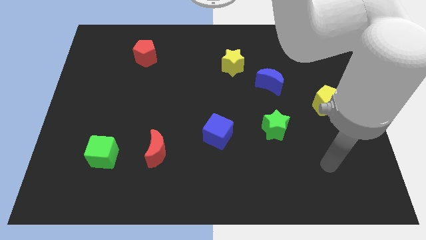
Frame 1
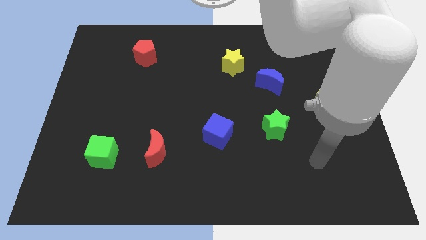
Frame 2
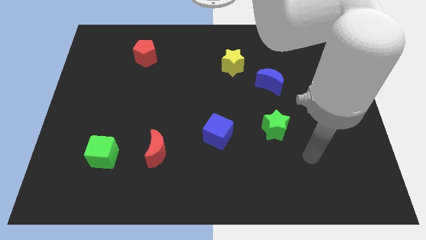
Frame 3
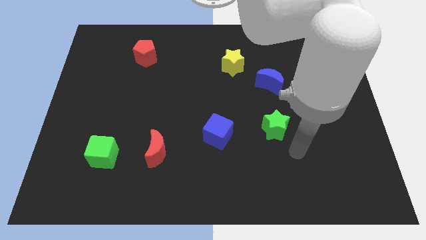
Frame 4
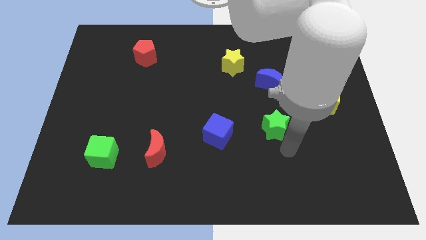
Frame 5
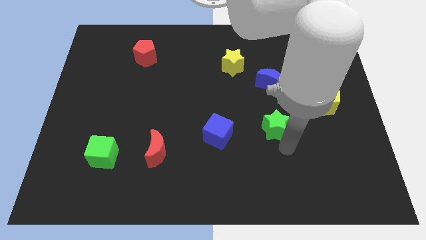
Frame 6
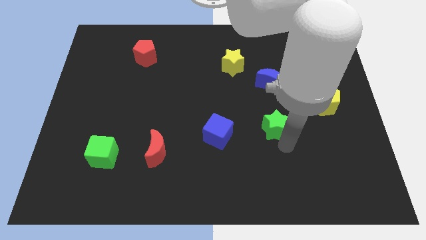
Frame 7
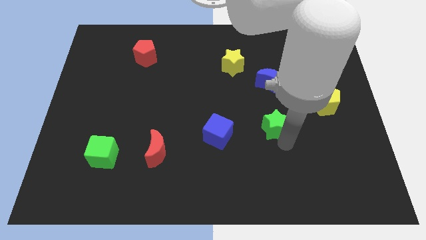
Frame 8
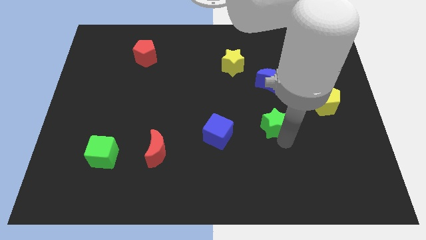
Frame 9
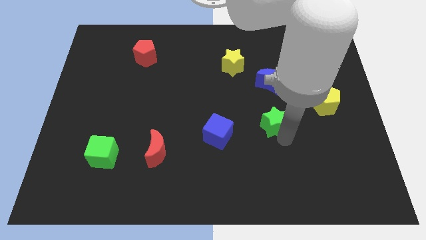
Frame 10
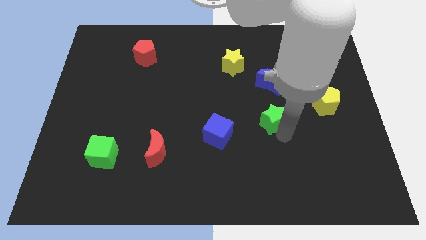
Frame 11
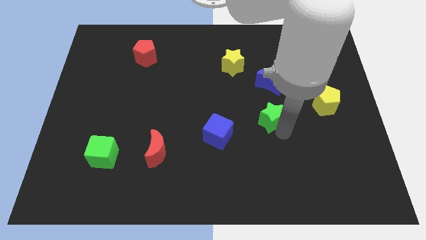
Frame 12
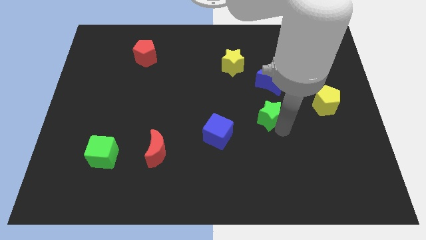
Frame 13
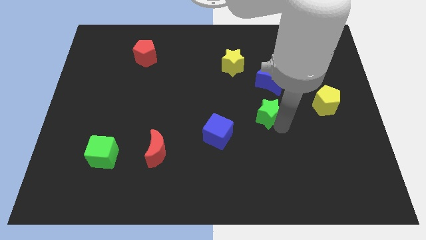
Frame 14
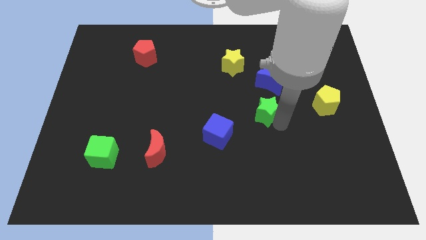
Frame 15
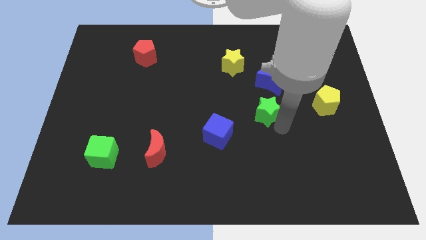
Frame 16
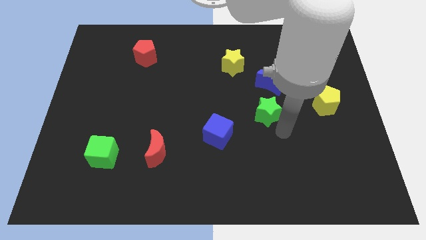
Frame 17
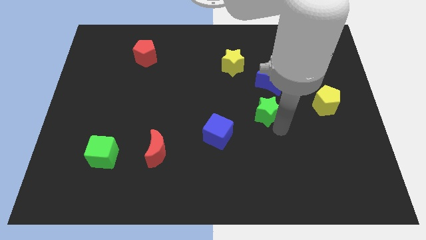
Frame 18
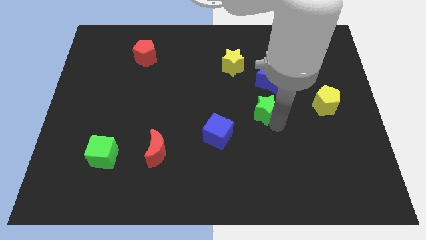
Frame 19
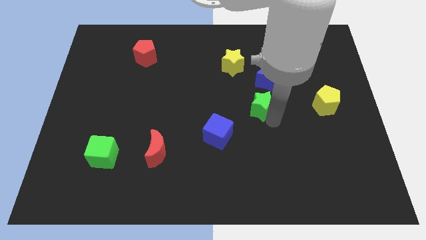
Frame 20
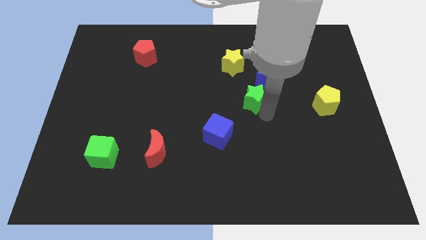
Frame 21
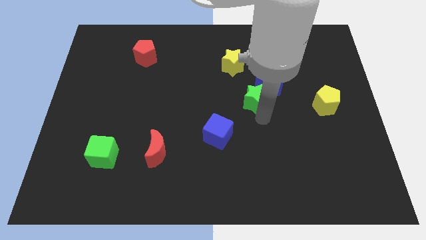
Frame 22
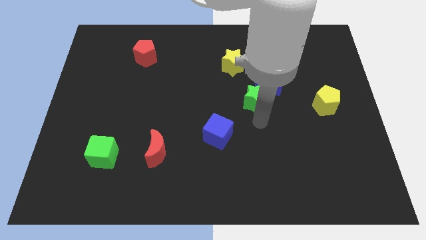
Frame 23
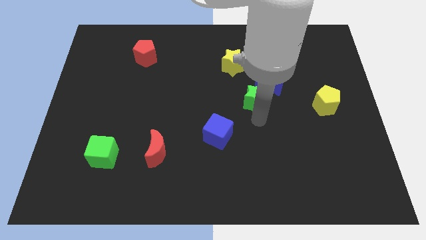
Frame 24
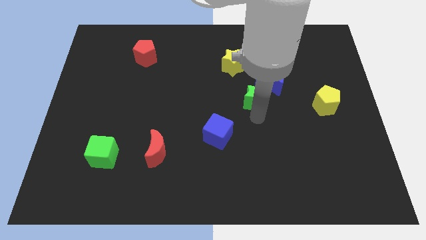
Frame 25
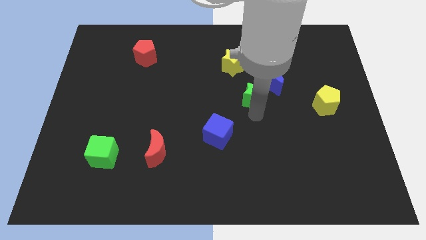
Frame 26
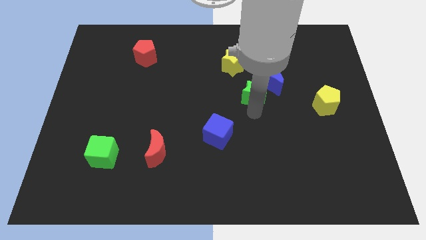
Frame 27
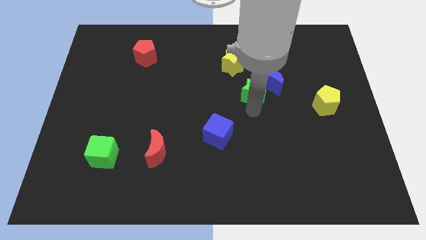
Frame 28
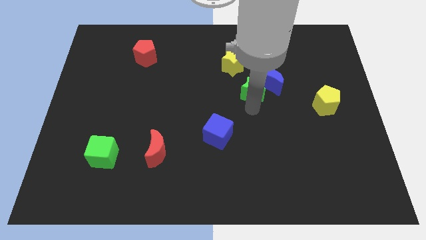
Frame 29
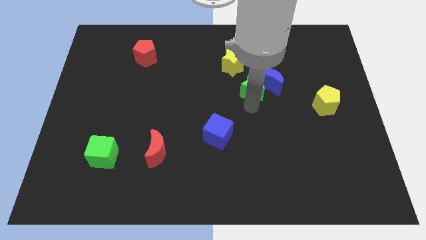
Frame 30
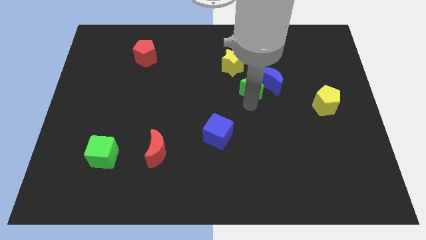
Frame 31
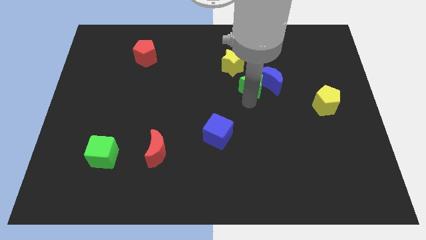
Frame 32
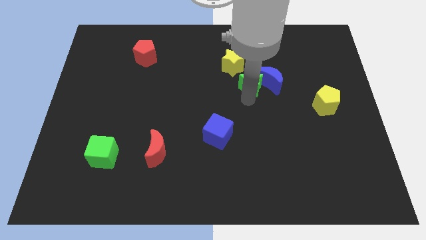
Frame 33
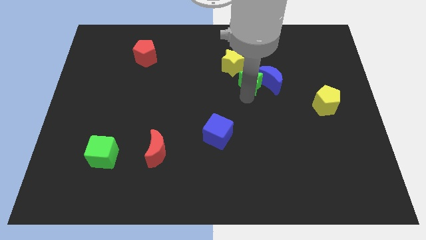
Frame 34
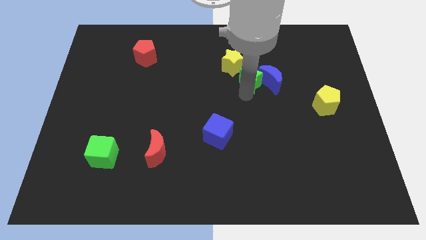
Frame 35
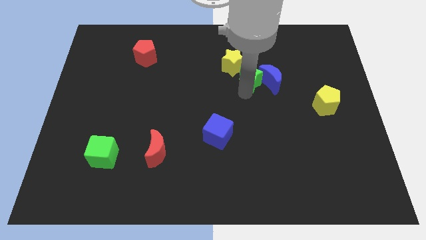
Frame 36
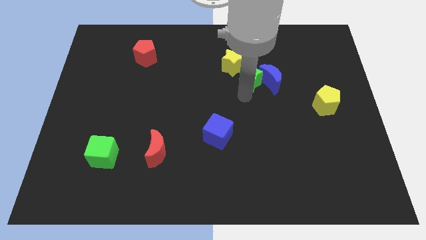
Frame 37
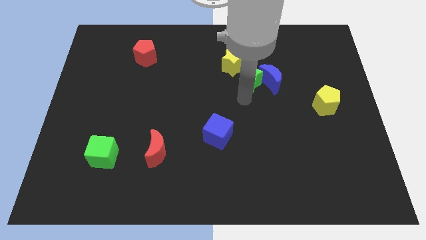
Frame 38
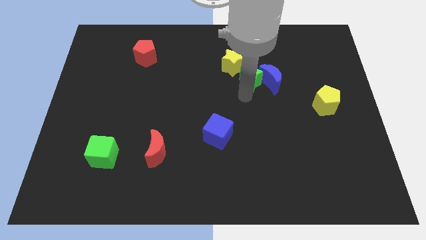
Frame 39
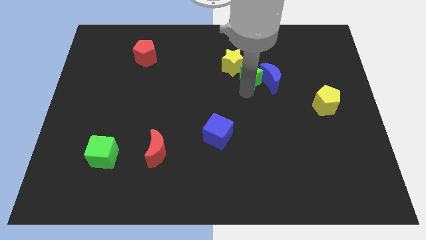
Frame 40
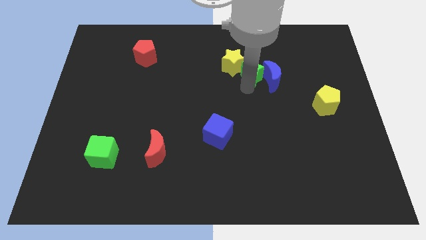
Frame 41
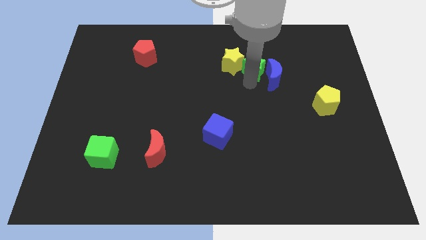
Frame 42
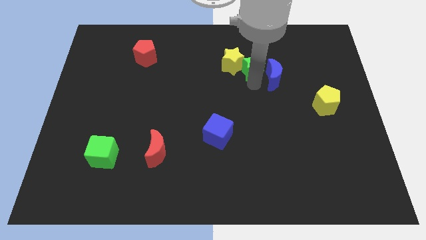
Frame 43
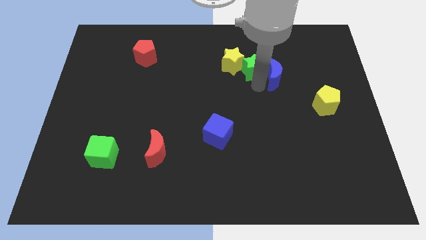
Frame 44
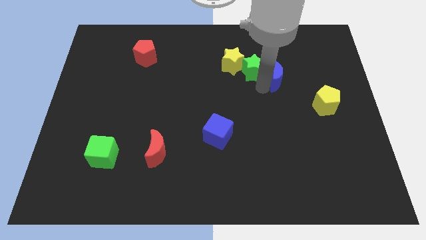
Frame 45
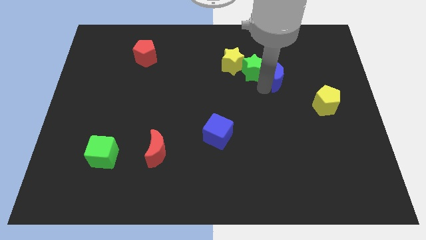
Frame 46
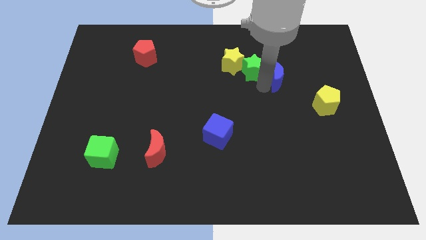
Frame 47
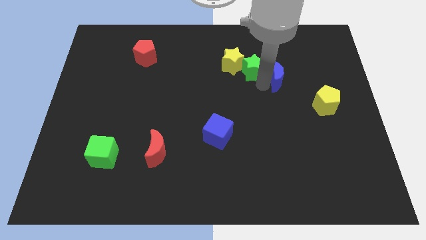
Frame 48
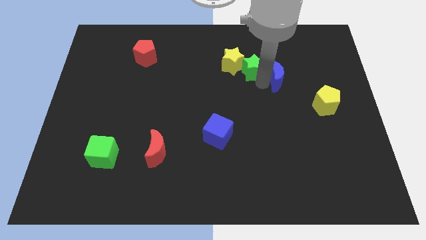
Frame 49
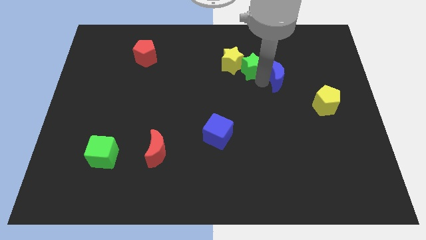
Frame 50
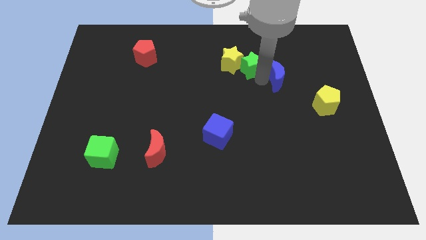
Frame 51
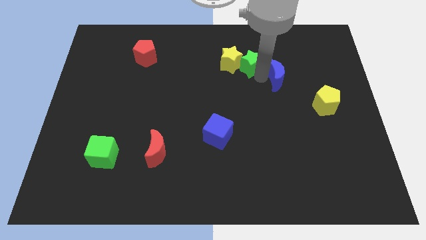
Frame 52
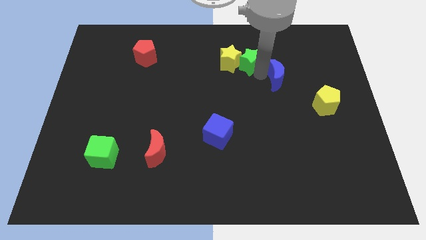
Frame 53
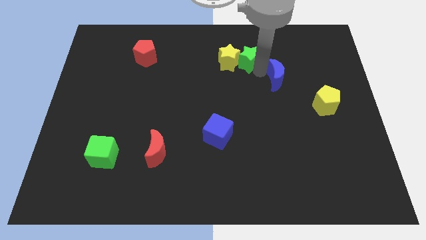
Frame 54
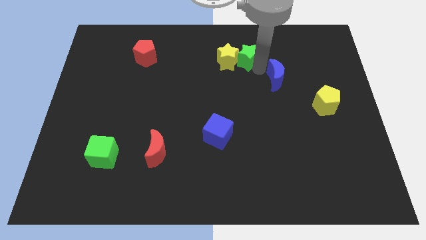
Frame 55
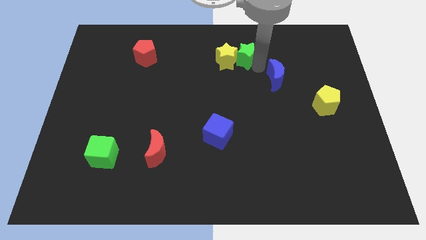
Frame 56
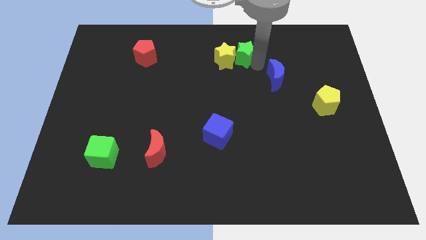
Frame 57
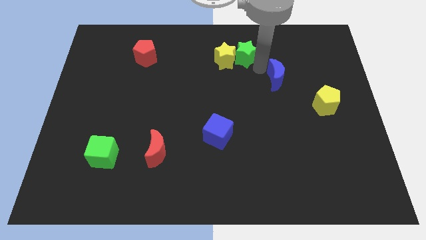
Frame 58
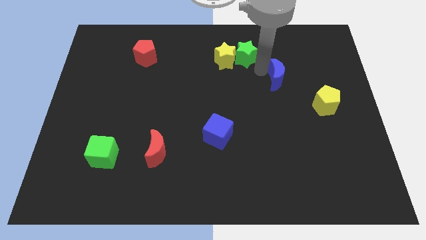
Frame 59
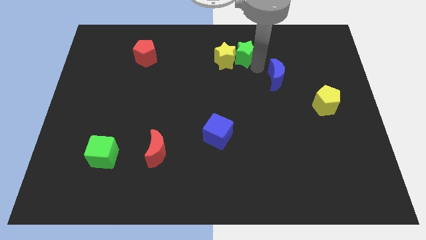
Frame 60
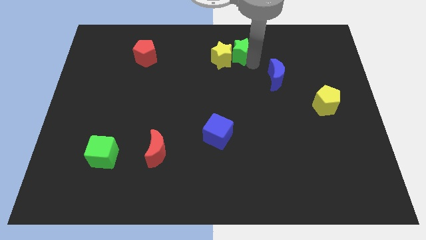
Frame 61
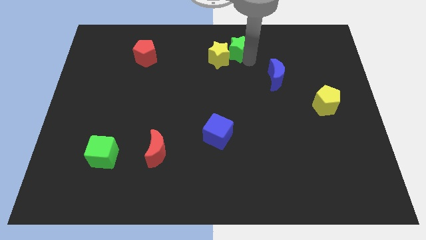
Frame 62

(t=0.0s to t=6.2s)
put the green star to the top side

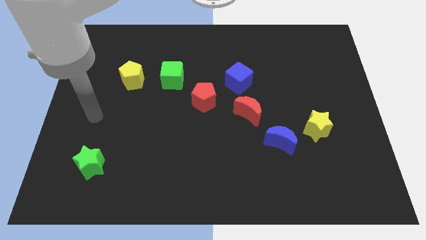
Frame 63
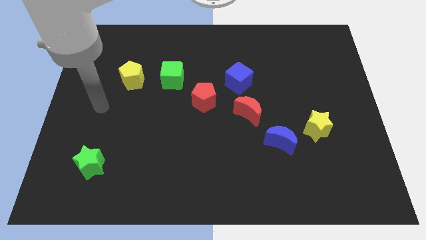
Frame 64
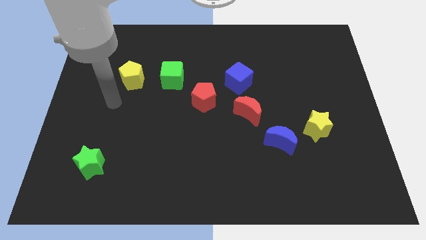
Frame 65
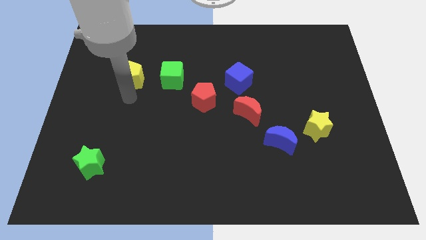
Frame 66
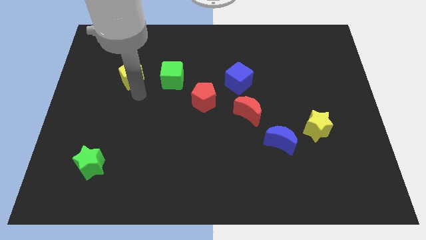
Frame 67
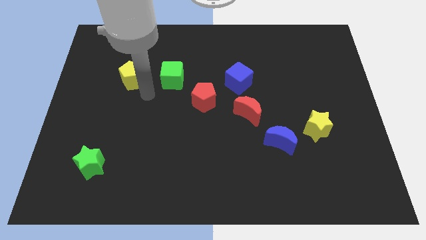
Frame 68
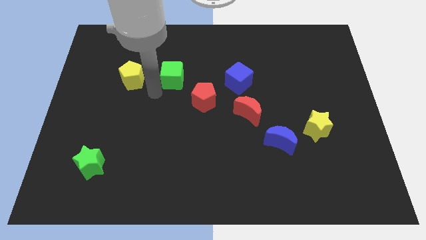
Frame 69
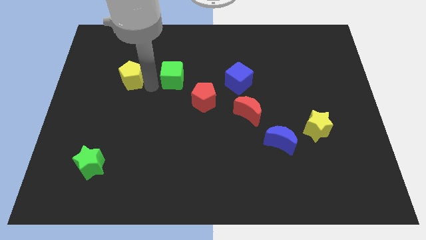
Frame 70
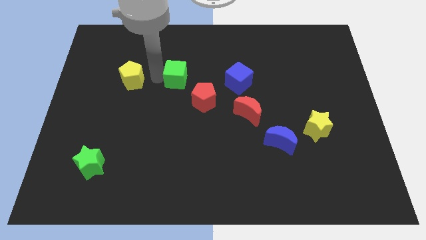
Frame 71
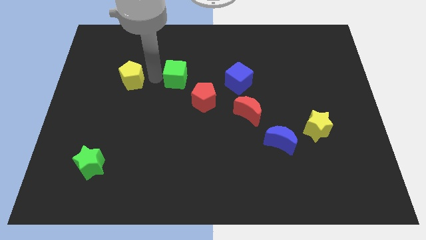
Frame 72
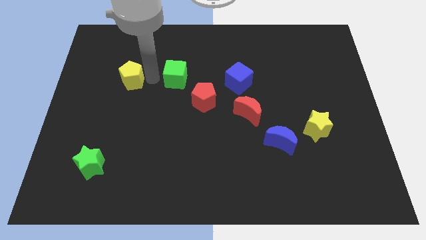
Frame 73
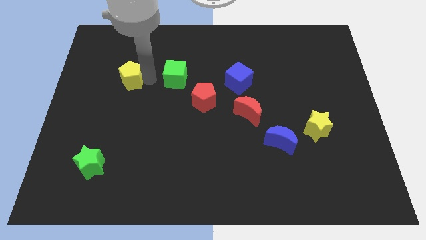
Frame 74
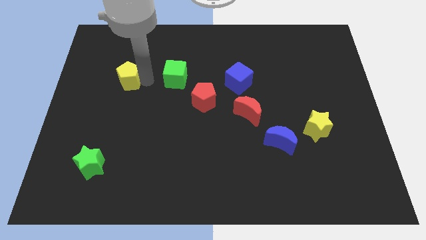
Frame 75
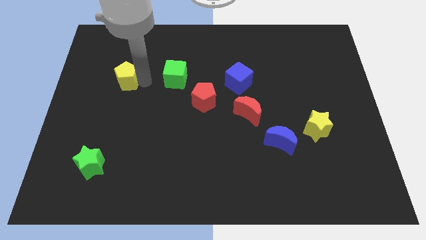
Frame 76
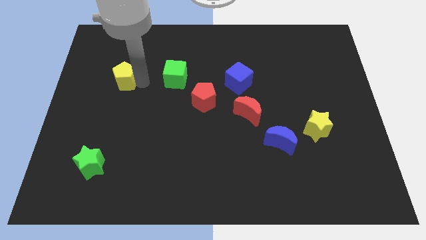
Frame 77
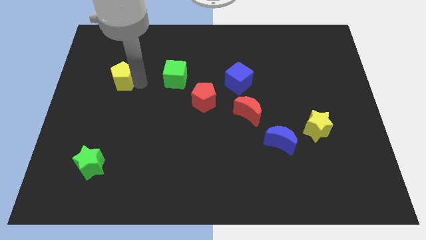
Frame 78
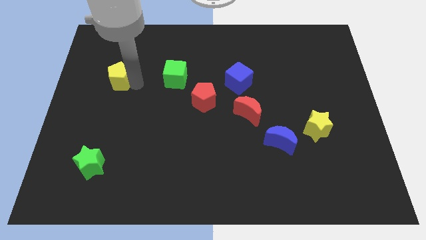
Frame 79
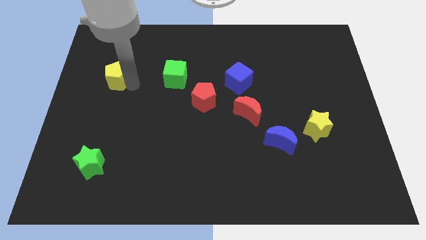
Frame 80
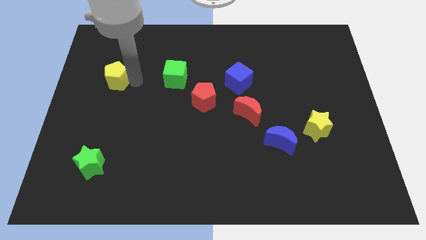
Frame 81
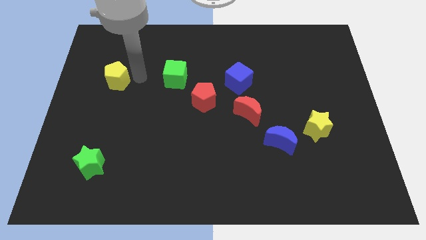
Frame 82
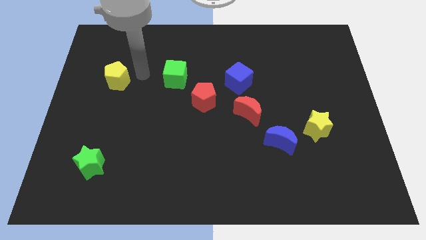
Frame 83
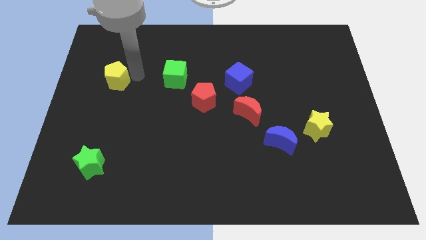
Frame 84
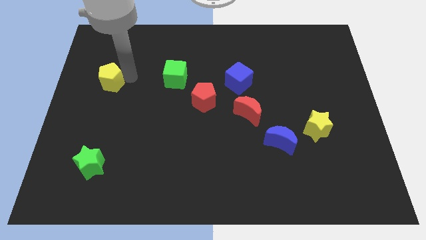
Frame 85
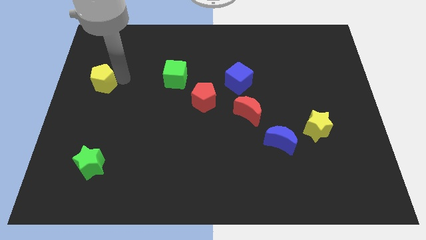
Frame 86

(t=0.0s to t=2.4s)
move the yellow pentagon to the center left
